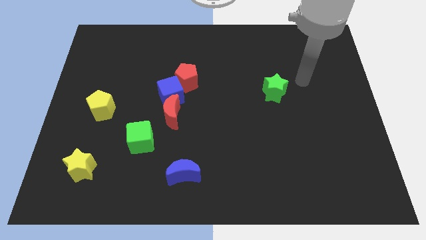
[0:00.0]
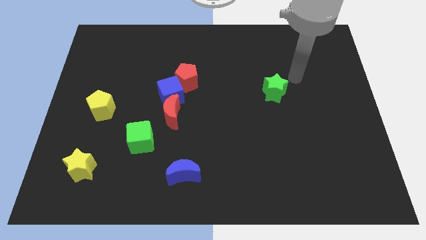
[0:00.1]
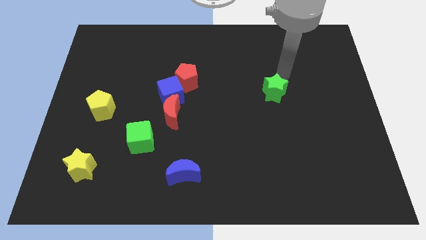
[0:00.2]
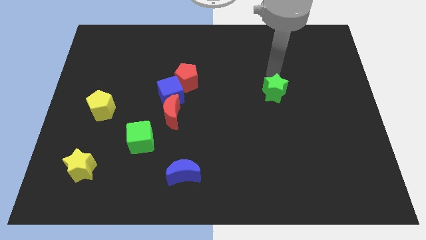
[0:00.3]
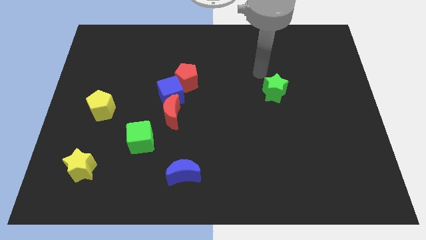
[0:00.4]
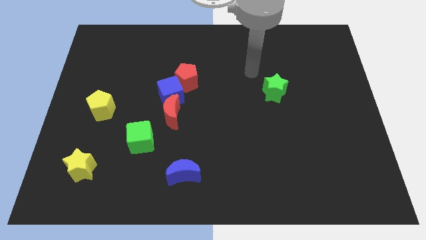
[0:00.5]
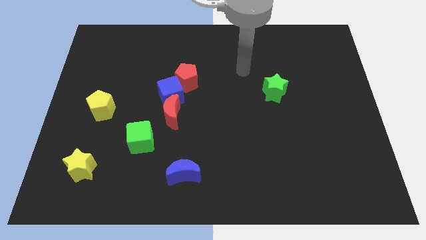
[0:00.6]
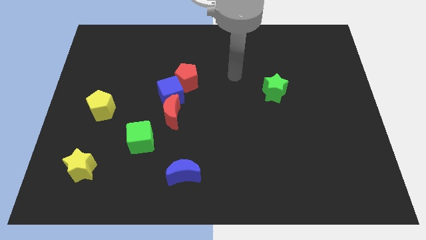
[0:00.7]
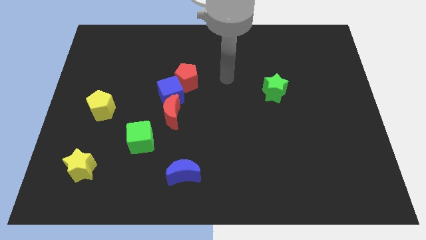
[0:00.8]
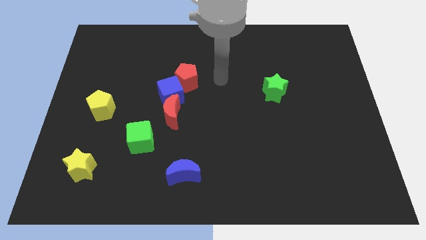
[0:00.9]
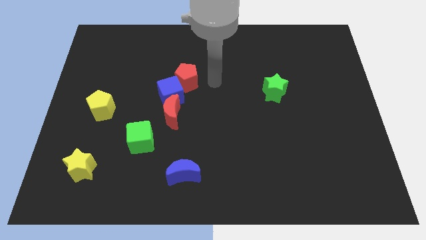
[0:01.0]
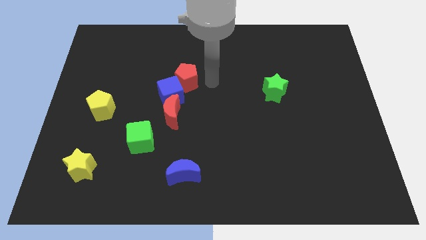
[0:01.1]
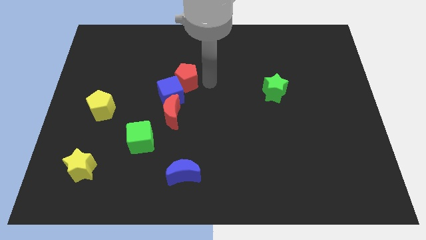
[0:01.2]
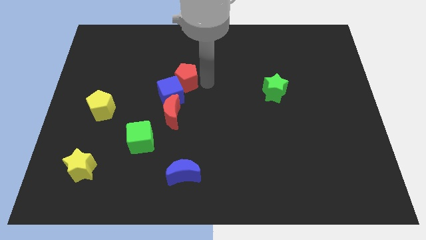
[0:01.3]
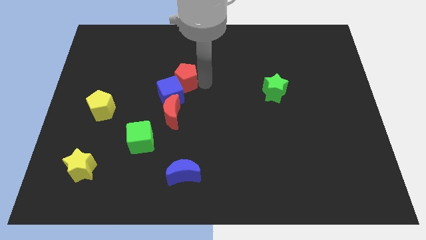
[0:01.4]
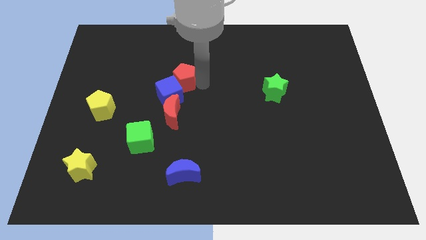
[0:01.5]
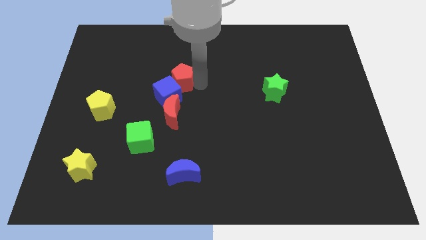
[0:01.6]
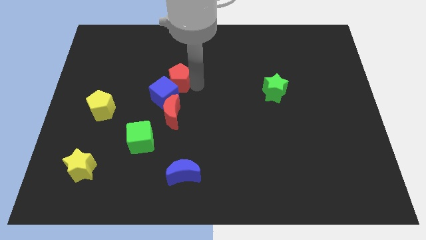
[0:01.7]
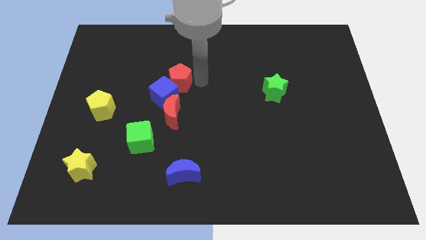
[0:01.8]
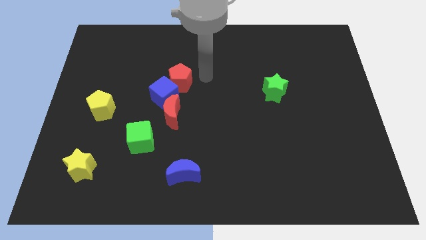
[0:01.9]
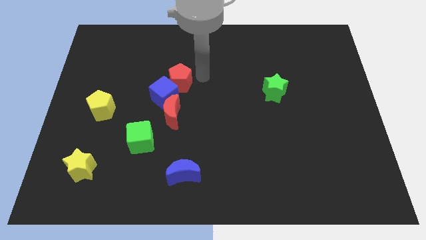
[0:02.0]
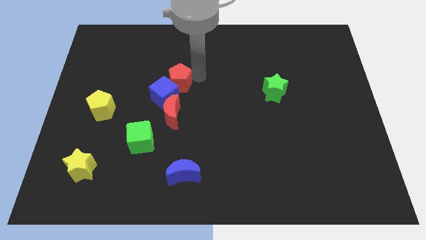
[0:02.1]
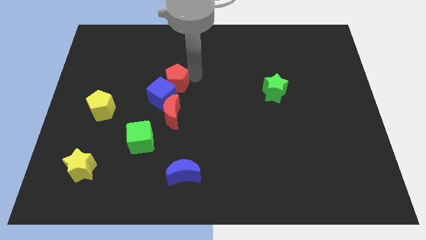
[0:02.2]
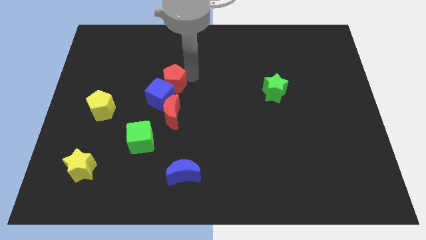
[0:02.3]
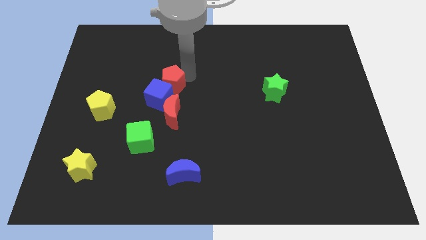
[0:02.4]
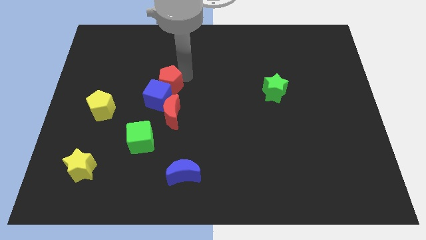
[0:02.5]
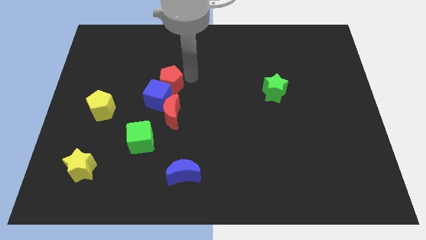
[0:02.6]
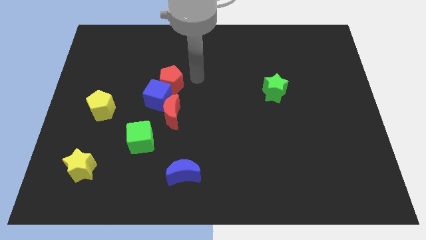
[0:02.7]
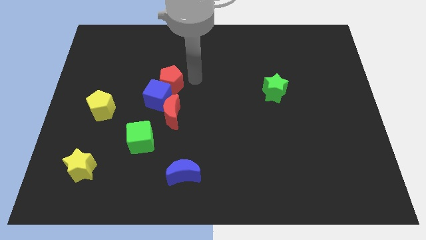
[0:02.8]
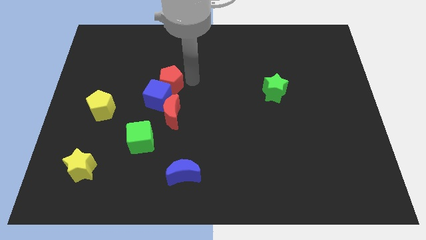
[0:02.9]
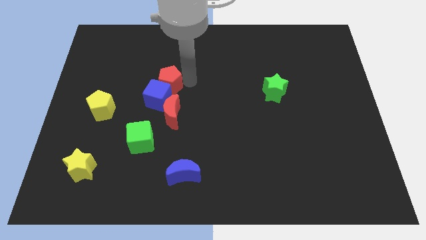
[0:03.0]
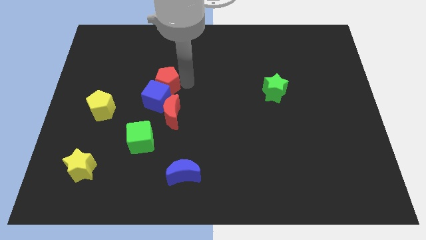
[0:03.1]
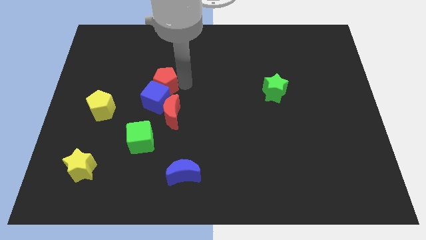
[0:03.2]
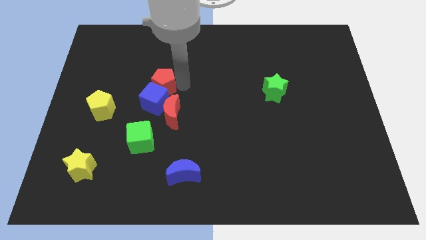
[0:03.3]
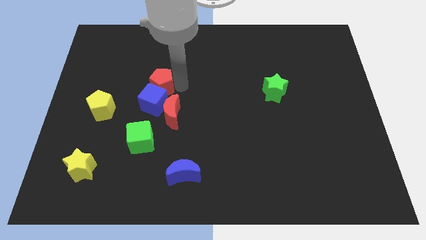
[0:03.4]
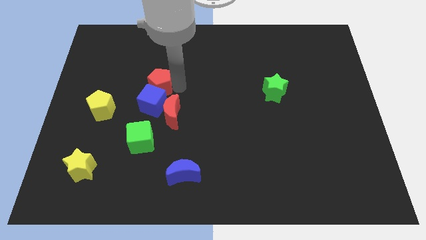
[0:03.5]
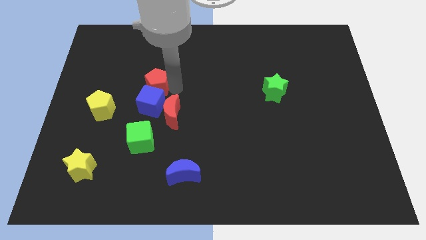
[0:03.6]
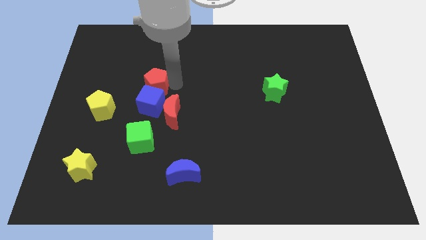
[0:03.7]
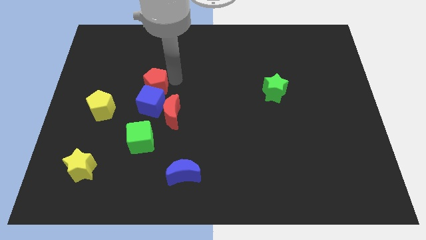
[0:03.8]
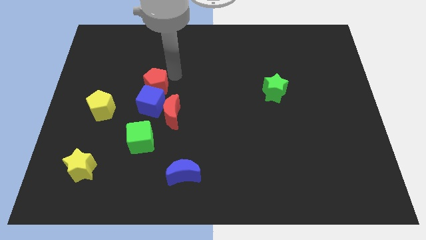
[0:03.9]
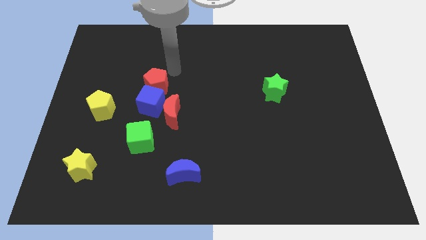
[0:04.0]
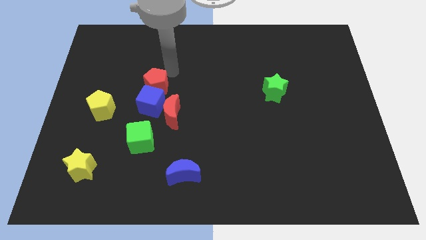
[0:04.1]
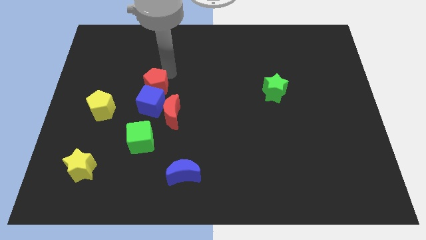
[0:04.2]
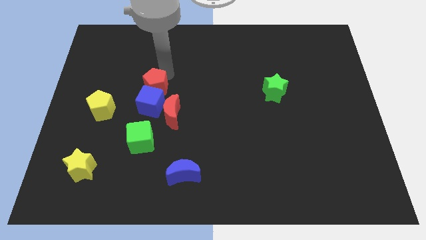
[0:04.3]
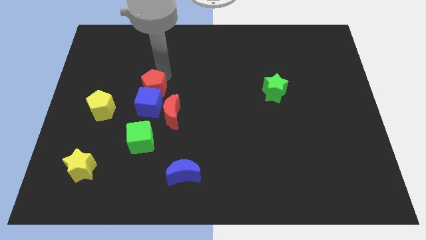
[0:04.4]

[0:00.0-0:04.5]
move the red pentagon slightly down and left diagonally

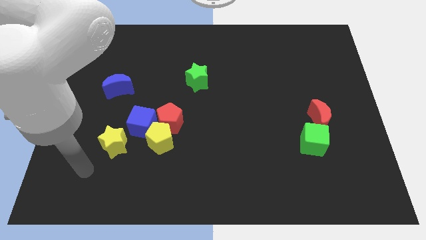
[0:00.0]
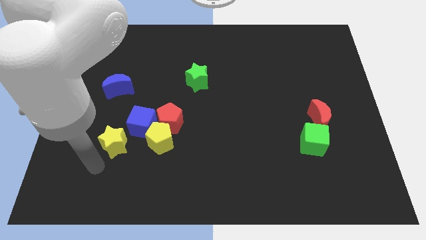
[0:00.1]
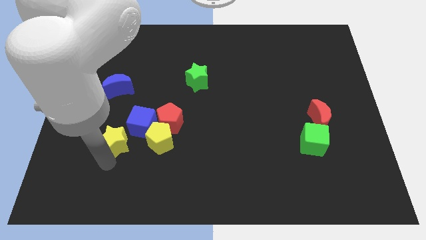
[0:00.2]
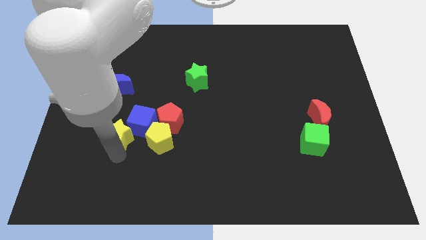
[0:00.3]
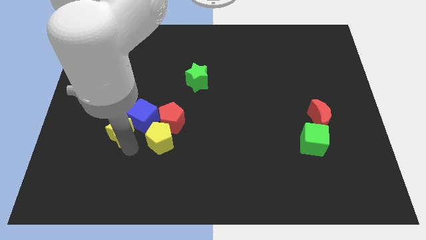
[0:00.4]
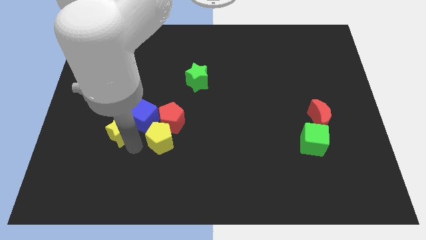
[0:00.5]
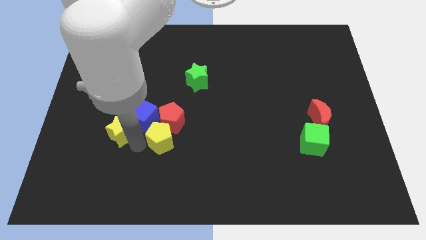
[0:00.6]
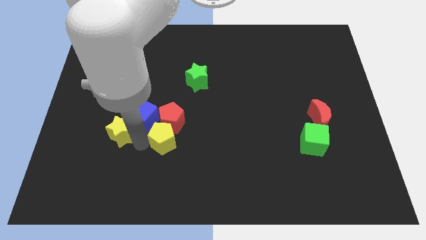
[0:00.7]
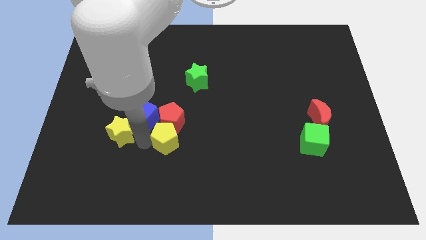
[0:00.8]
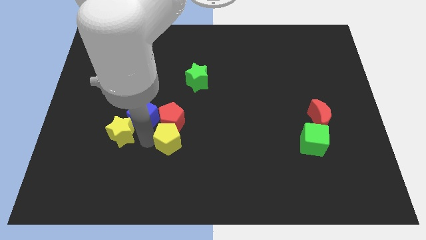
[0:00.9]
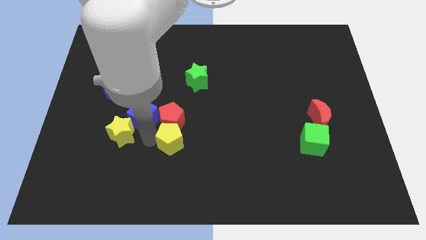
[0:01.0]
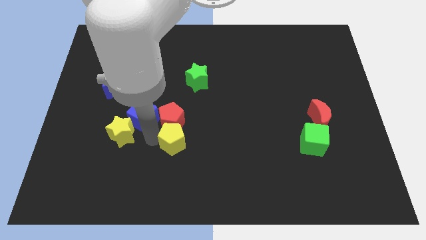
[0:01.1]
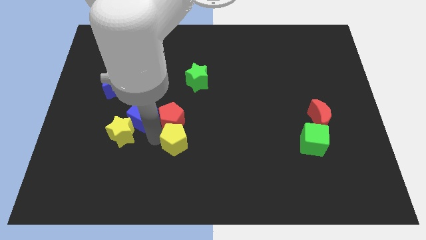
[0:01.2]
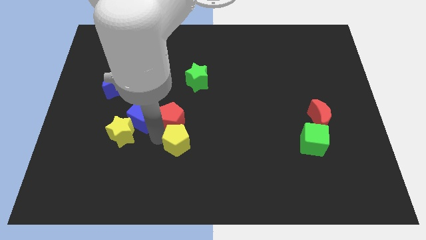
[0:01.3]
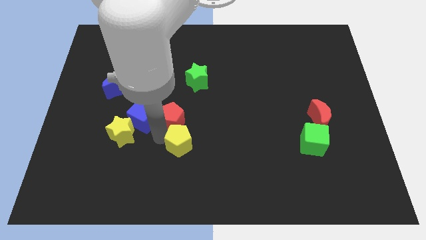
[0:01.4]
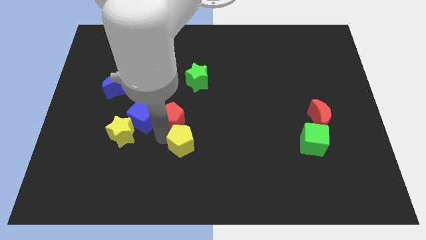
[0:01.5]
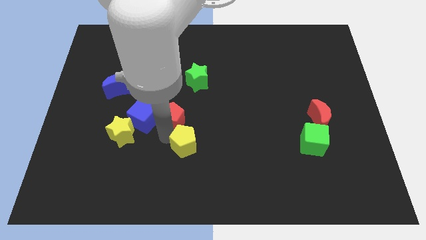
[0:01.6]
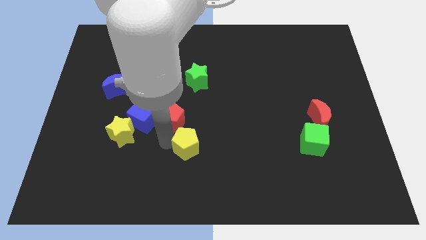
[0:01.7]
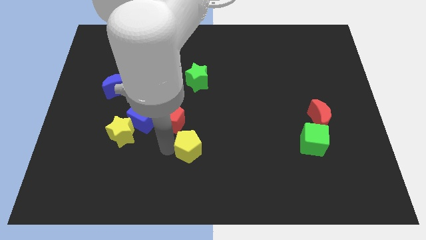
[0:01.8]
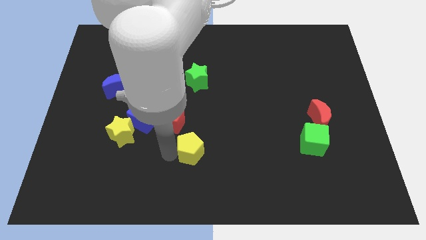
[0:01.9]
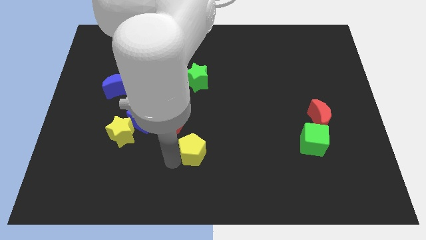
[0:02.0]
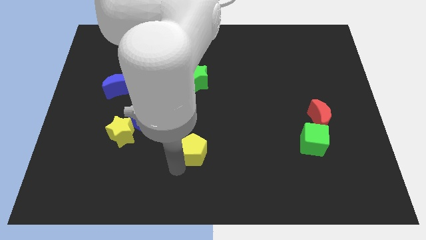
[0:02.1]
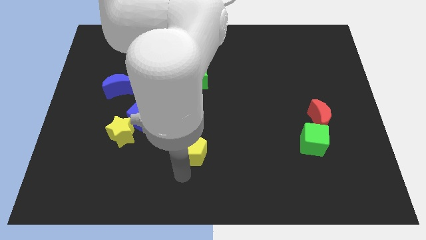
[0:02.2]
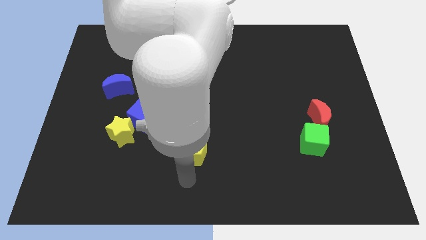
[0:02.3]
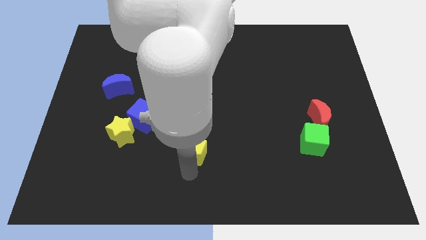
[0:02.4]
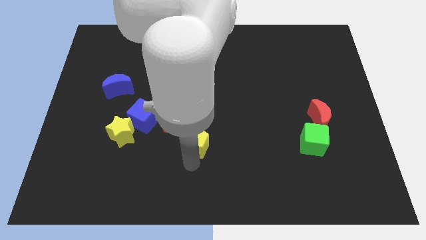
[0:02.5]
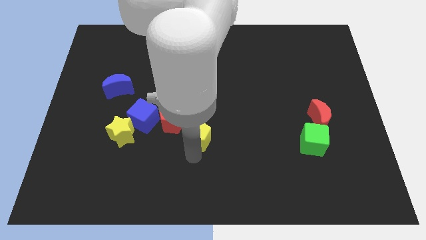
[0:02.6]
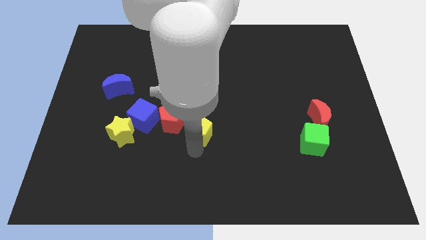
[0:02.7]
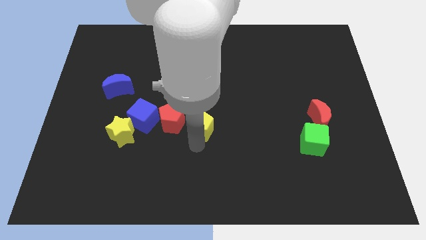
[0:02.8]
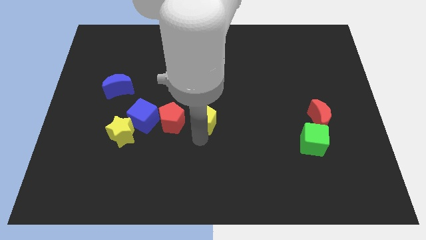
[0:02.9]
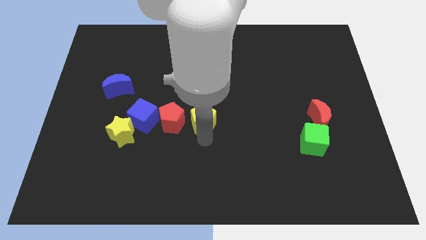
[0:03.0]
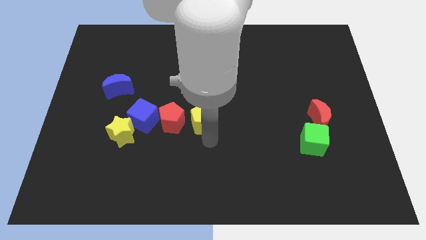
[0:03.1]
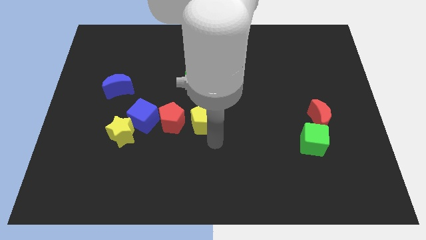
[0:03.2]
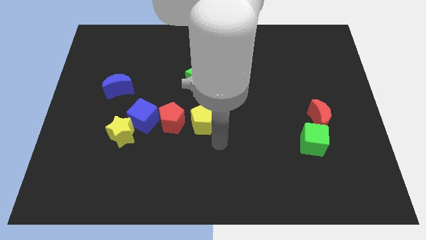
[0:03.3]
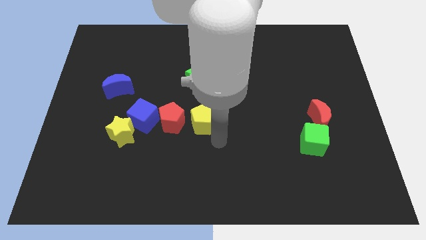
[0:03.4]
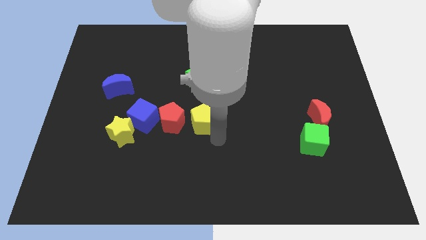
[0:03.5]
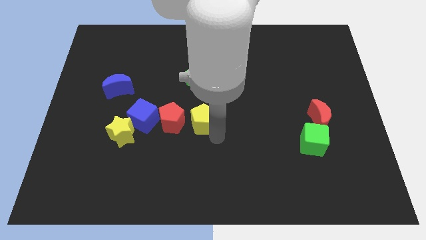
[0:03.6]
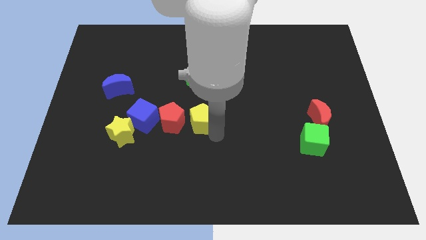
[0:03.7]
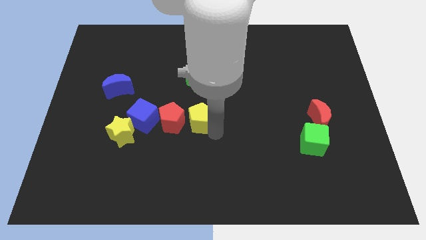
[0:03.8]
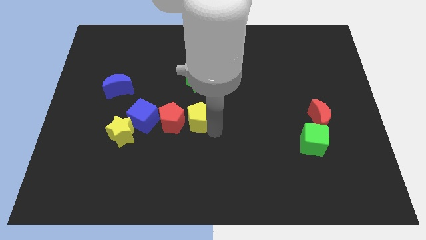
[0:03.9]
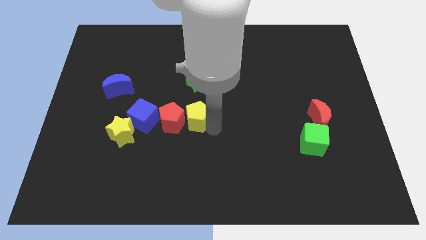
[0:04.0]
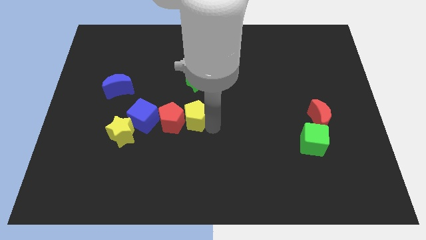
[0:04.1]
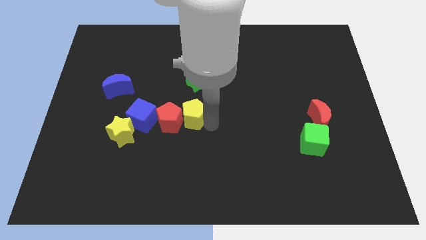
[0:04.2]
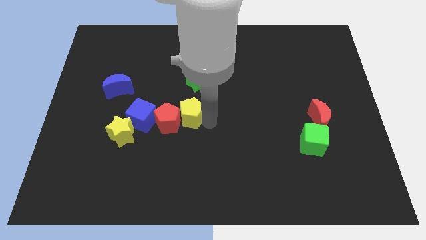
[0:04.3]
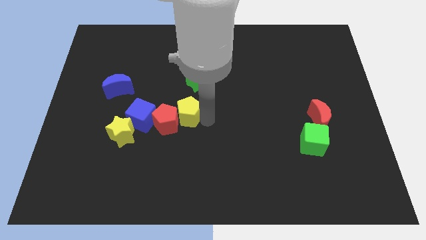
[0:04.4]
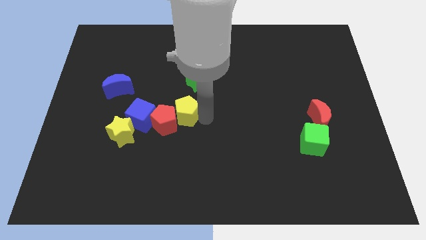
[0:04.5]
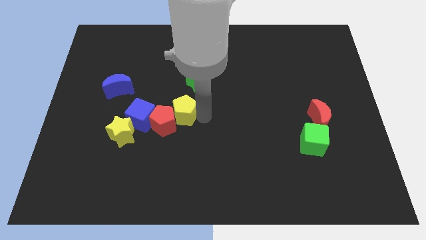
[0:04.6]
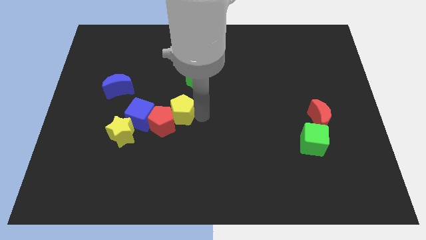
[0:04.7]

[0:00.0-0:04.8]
move the yellow pentagon slightly up
